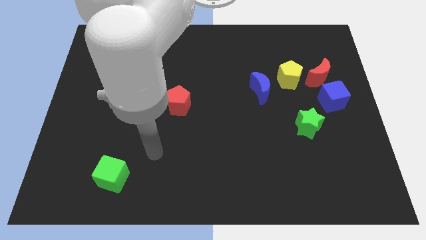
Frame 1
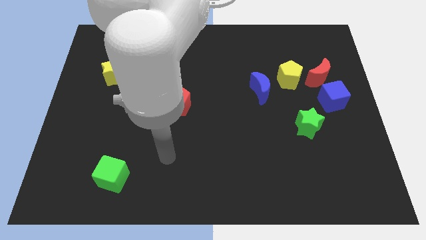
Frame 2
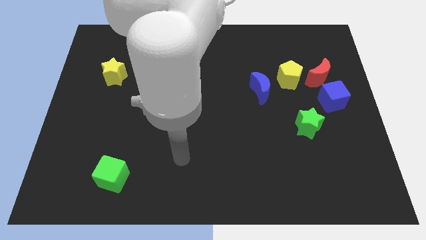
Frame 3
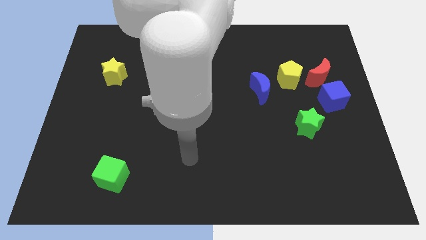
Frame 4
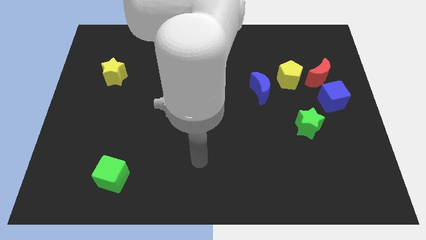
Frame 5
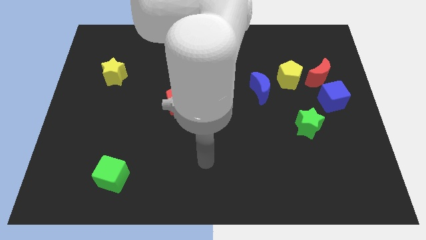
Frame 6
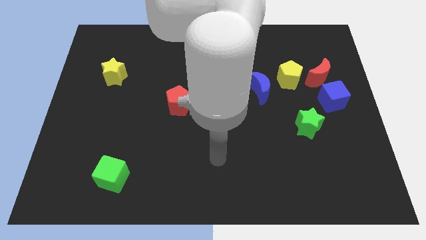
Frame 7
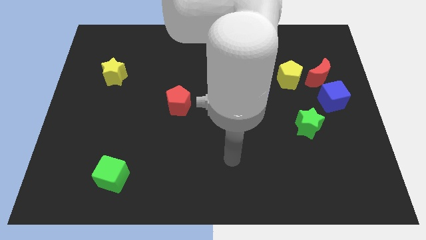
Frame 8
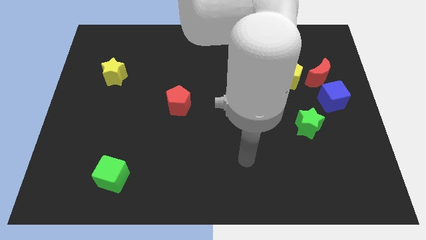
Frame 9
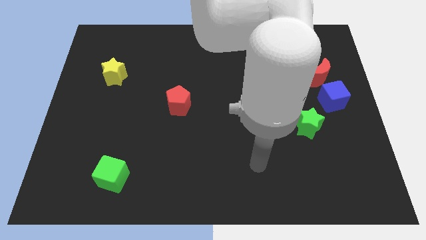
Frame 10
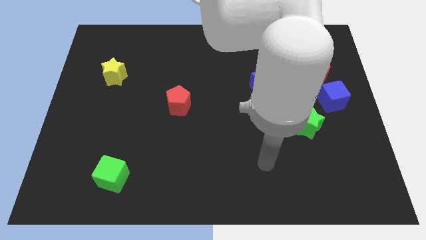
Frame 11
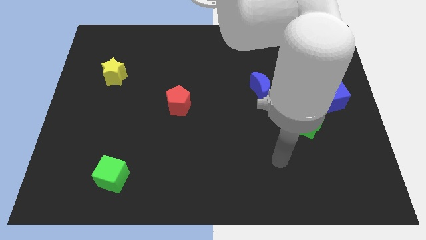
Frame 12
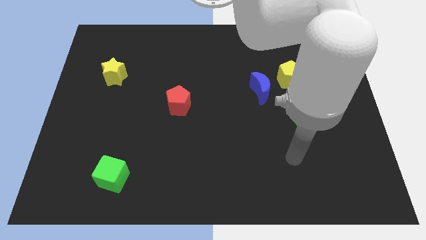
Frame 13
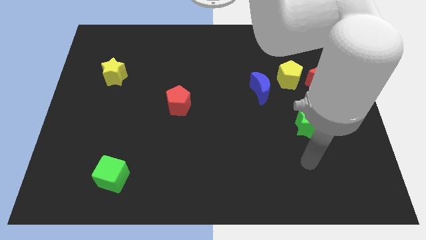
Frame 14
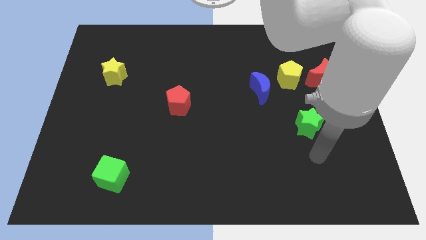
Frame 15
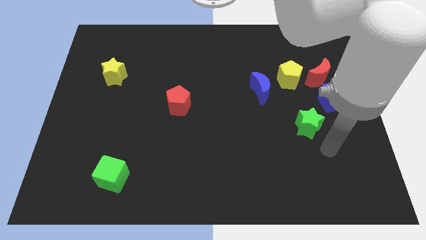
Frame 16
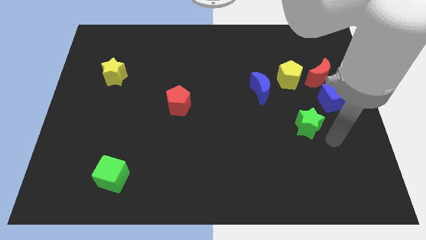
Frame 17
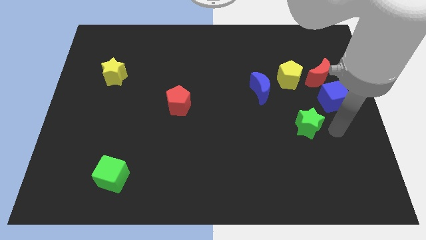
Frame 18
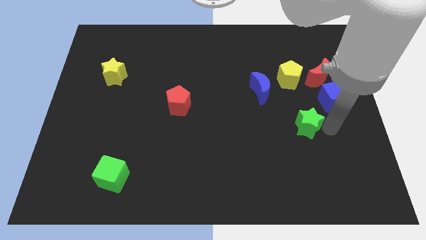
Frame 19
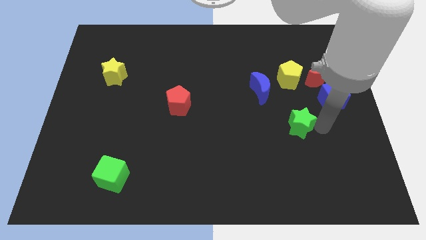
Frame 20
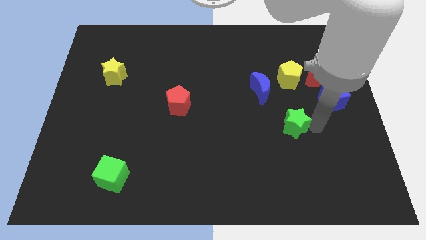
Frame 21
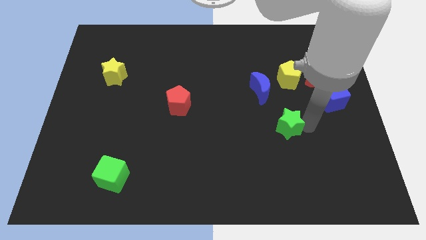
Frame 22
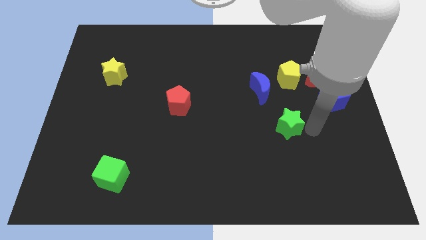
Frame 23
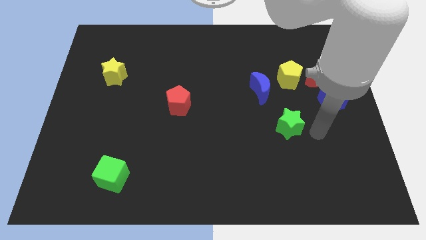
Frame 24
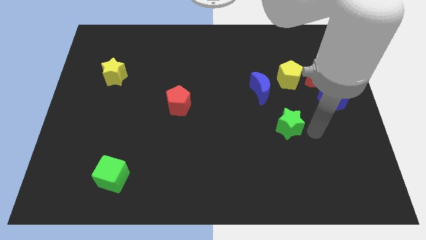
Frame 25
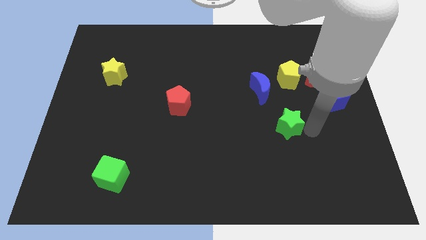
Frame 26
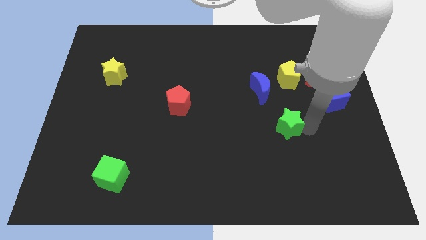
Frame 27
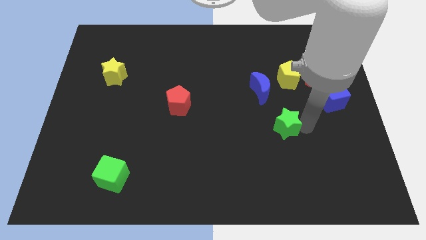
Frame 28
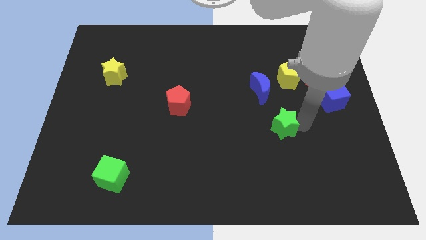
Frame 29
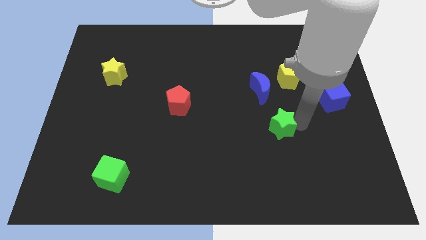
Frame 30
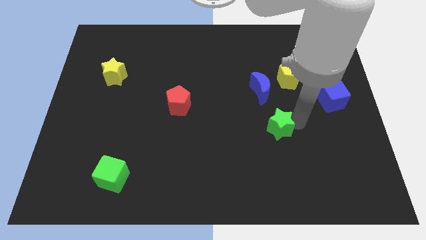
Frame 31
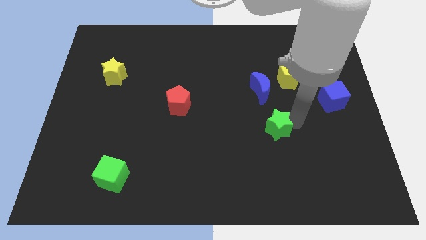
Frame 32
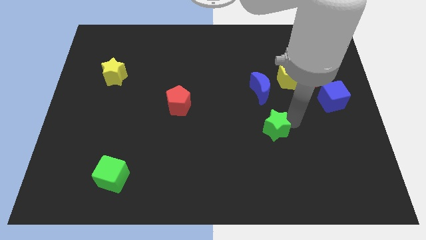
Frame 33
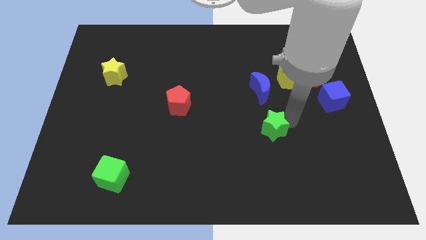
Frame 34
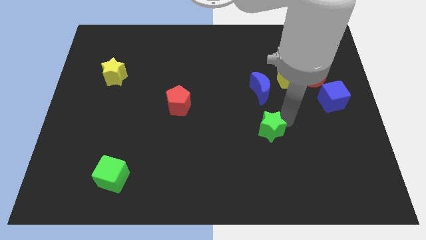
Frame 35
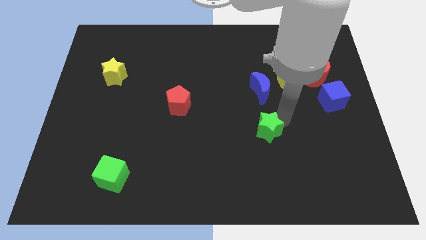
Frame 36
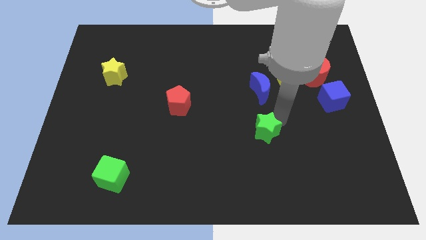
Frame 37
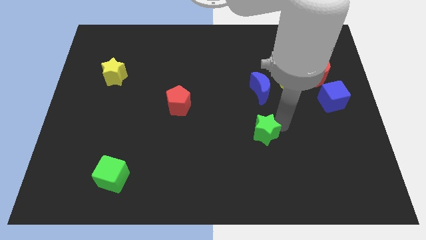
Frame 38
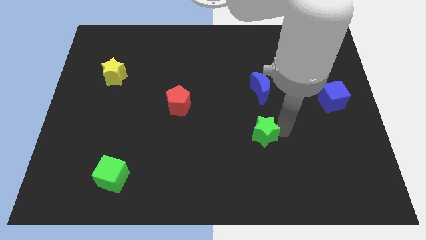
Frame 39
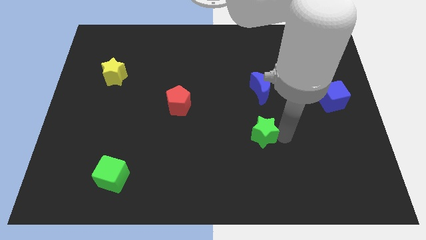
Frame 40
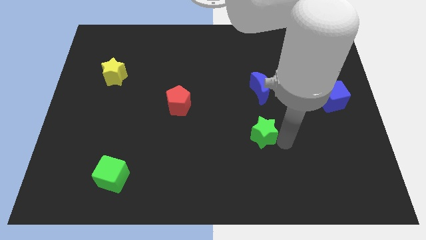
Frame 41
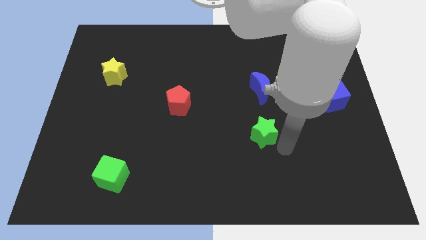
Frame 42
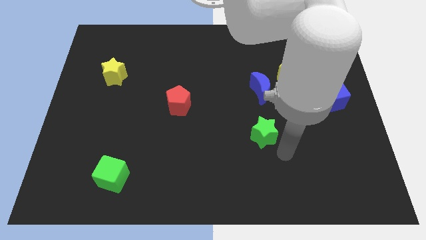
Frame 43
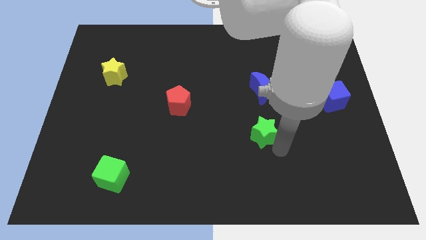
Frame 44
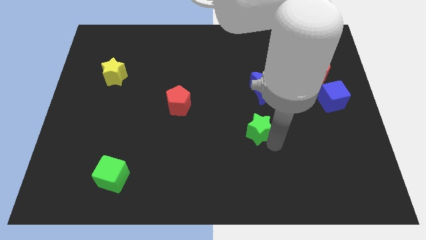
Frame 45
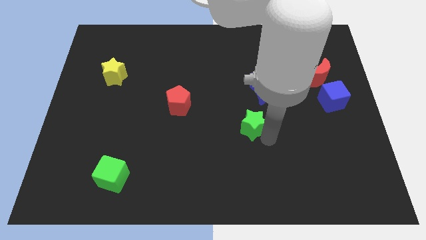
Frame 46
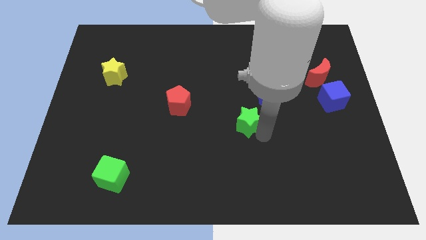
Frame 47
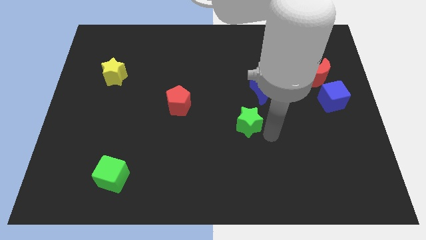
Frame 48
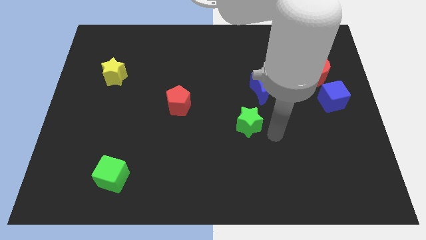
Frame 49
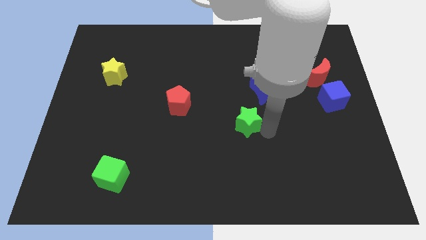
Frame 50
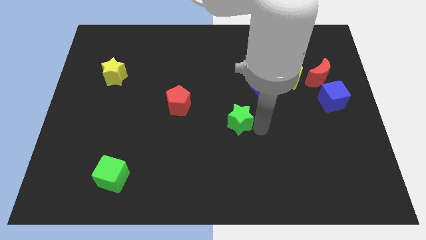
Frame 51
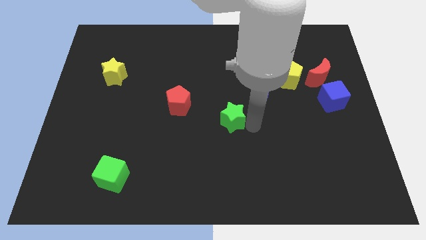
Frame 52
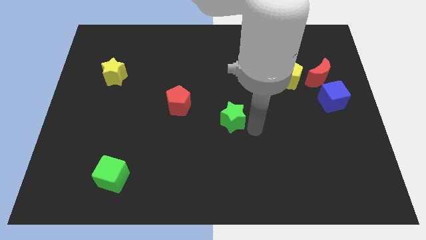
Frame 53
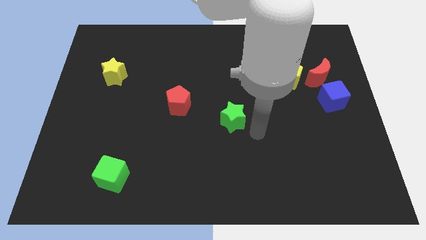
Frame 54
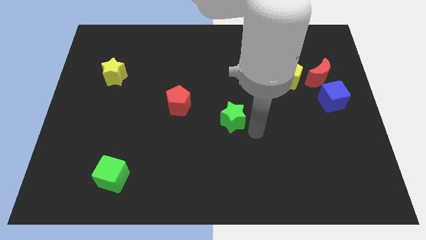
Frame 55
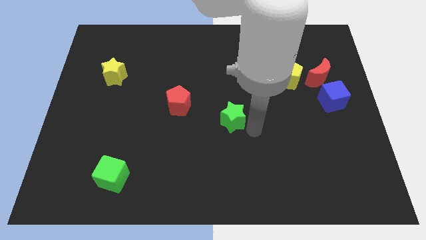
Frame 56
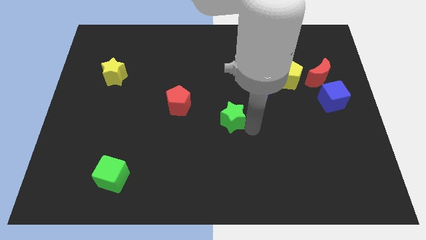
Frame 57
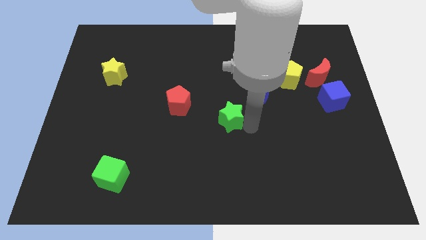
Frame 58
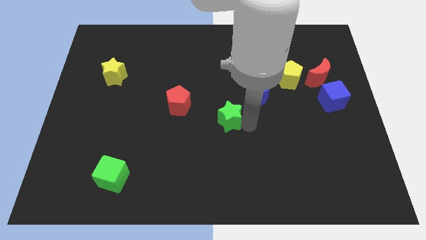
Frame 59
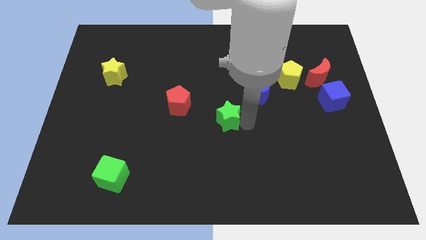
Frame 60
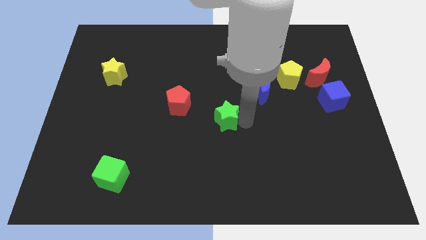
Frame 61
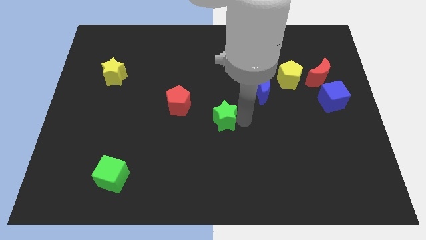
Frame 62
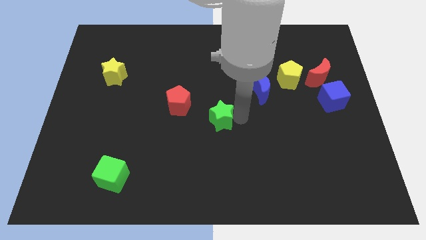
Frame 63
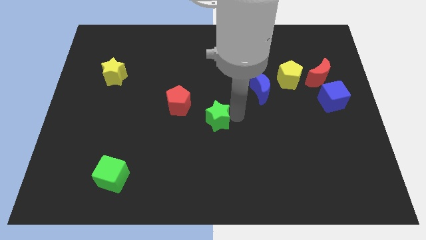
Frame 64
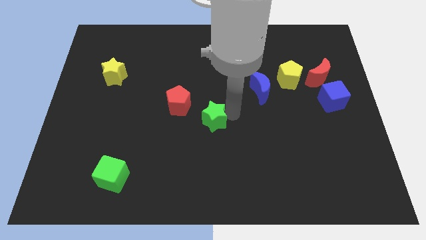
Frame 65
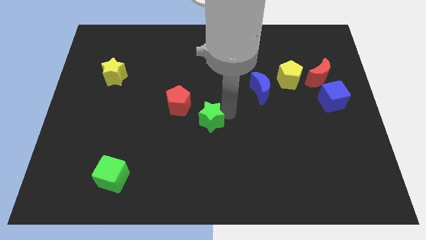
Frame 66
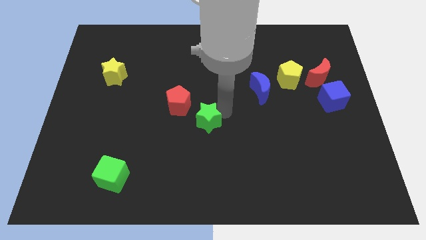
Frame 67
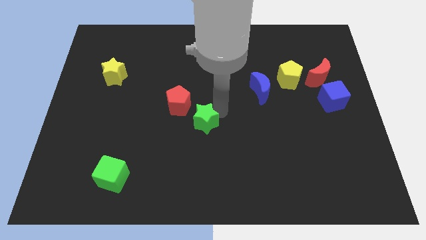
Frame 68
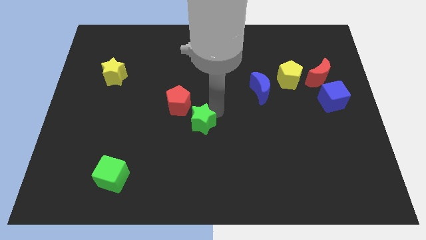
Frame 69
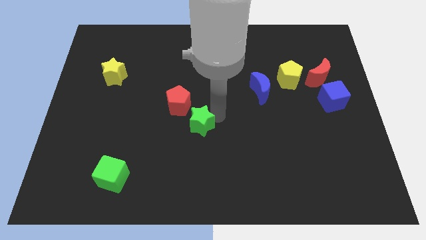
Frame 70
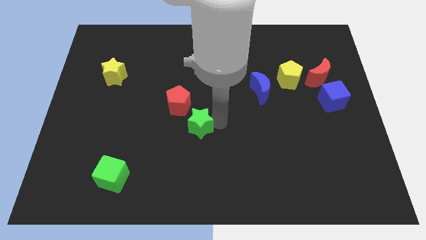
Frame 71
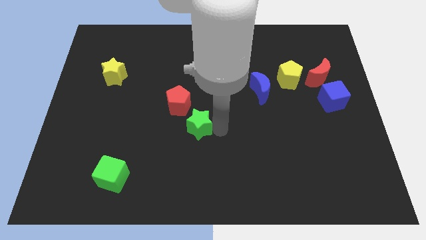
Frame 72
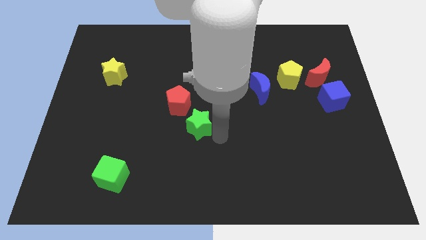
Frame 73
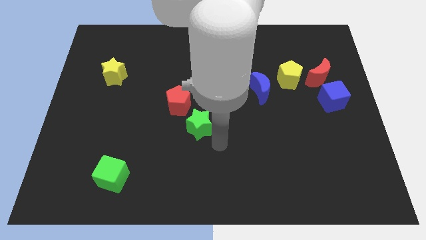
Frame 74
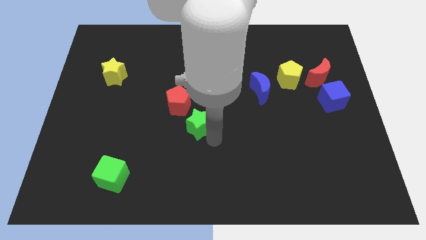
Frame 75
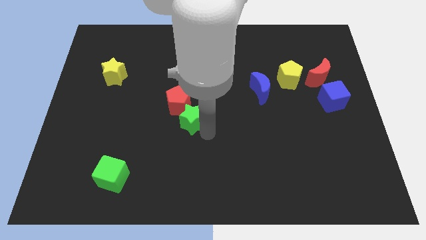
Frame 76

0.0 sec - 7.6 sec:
move the green star towards the red pentagon

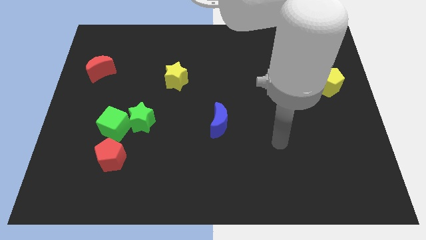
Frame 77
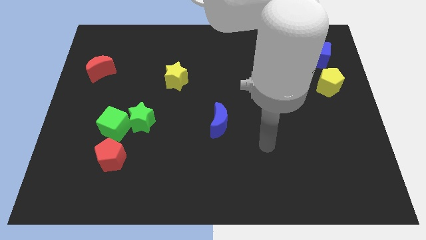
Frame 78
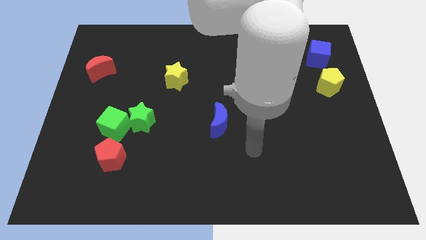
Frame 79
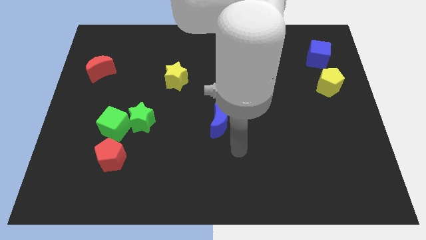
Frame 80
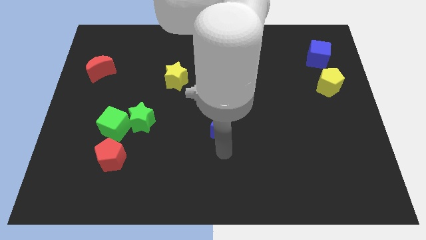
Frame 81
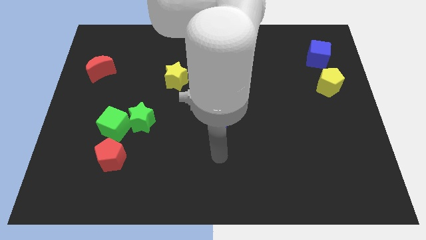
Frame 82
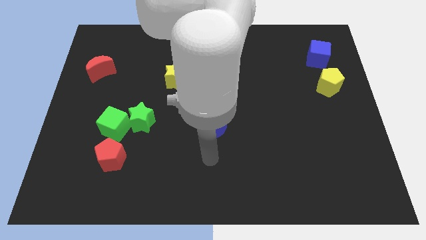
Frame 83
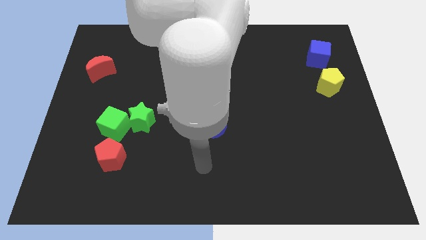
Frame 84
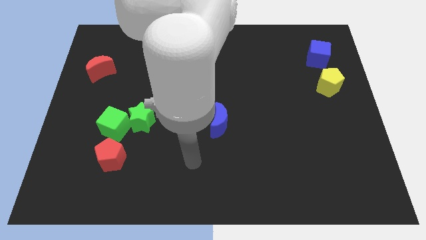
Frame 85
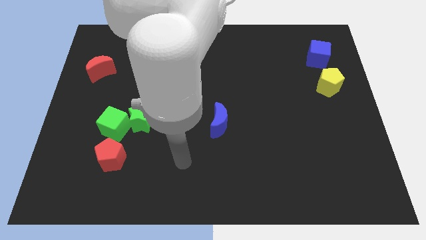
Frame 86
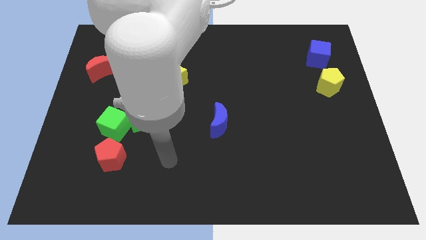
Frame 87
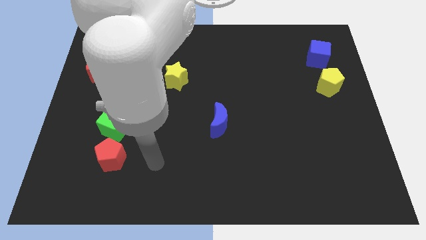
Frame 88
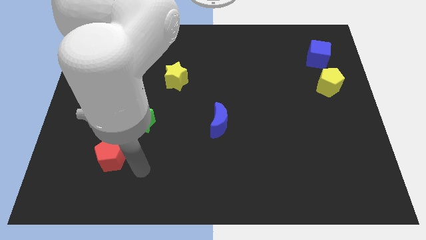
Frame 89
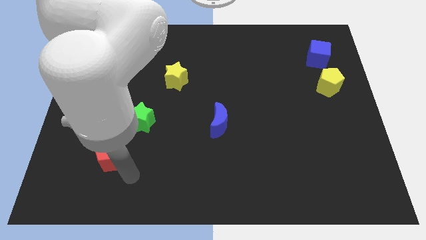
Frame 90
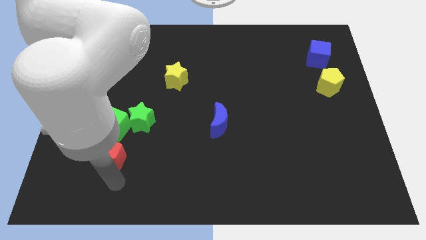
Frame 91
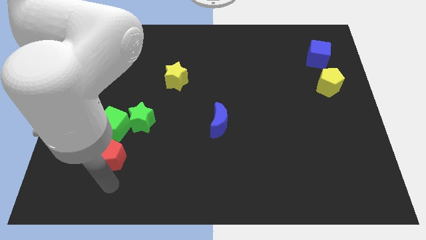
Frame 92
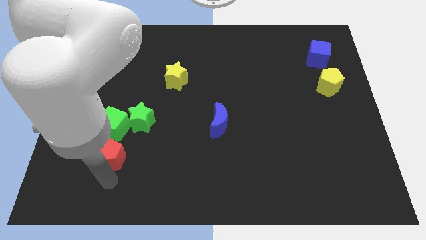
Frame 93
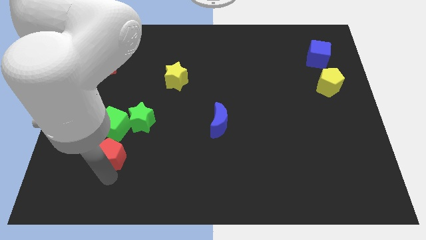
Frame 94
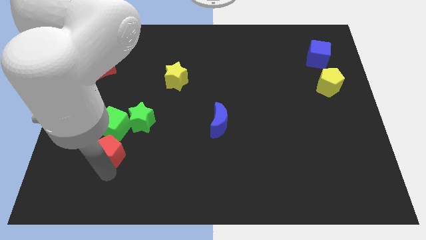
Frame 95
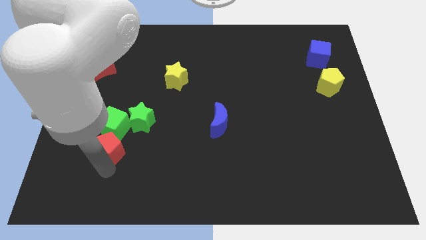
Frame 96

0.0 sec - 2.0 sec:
move the red pentagon next to the green cube
